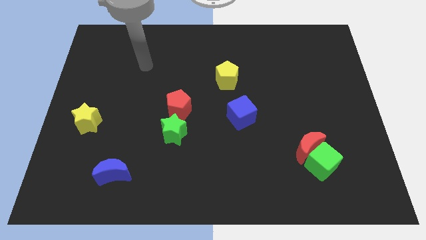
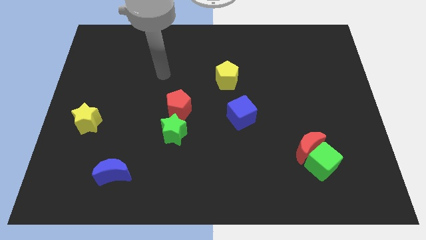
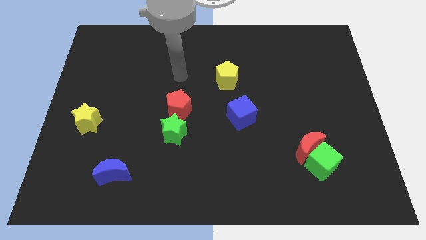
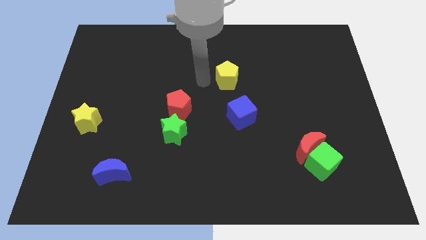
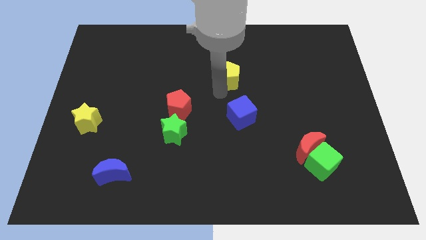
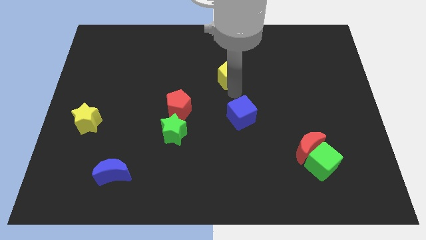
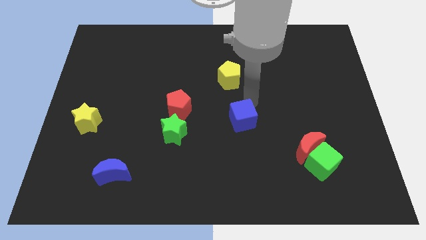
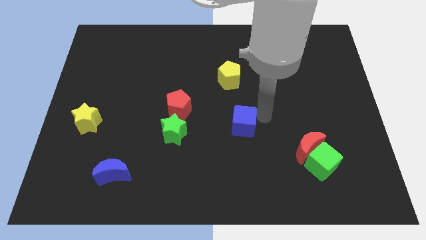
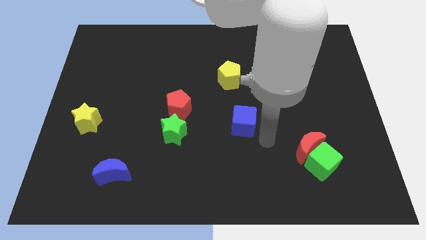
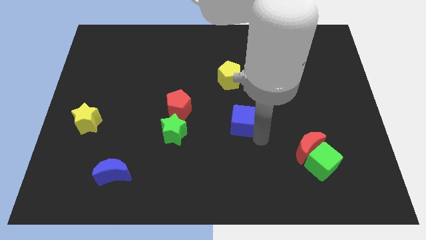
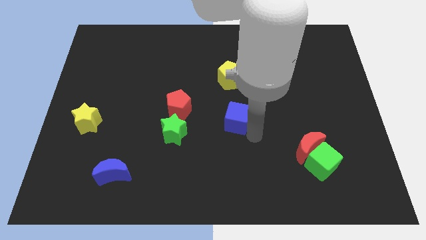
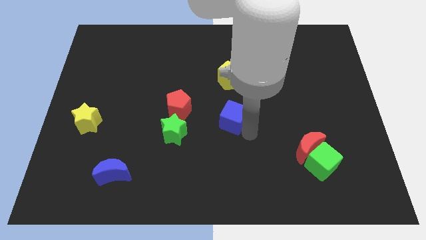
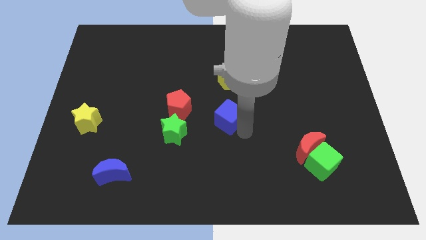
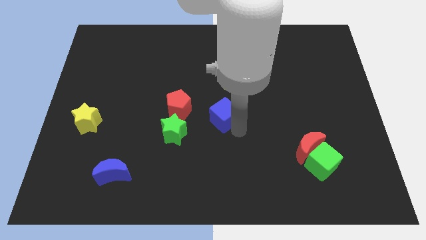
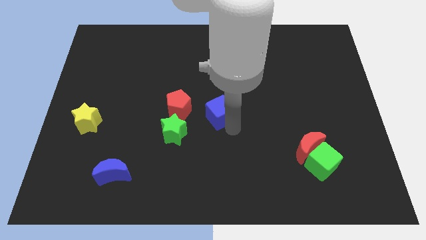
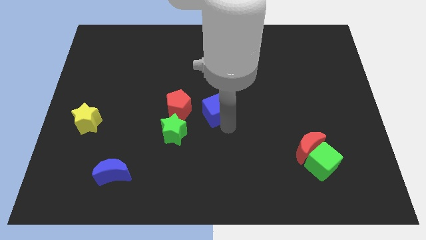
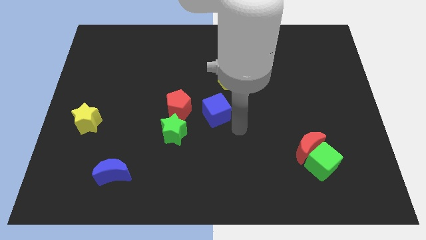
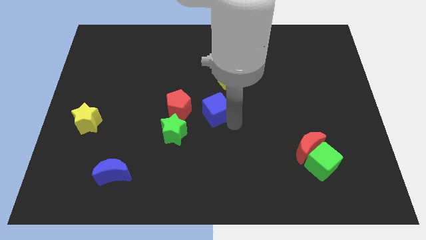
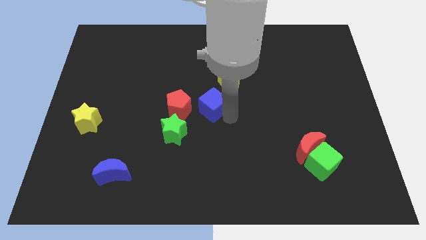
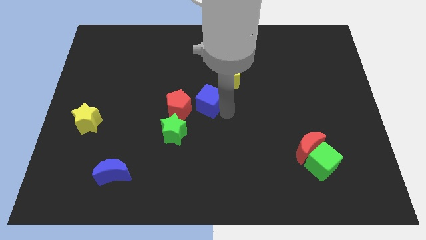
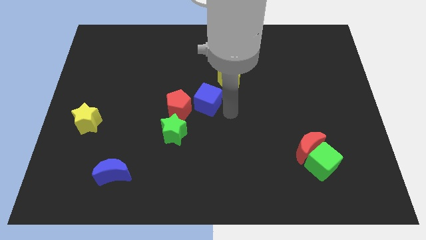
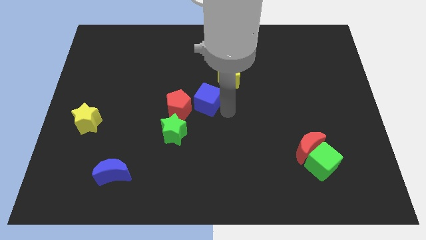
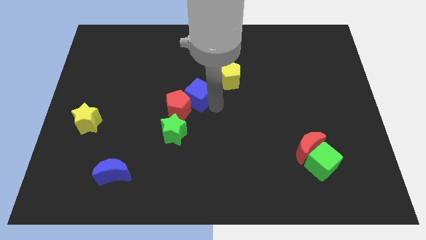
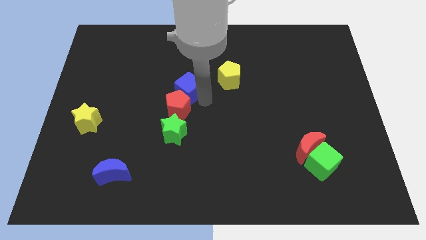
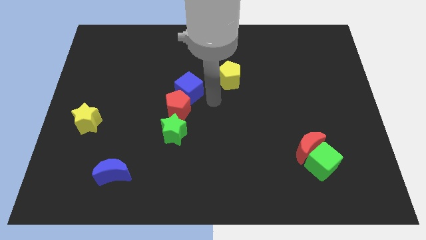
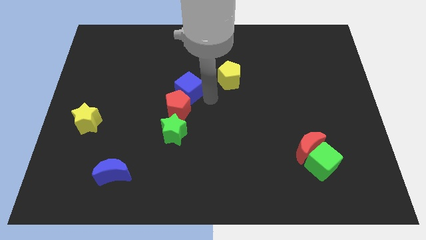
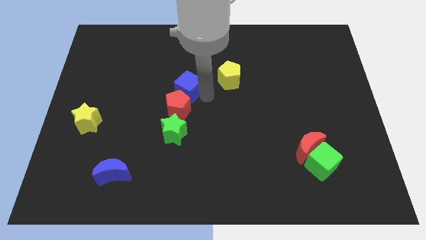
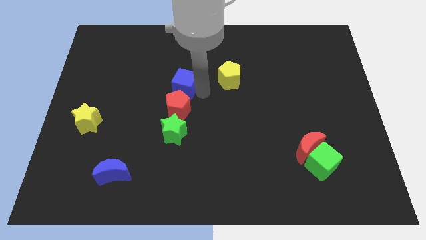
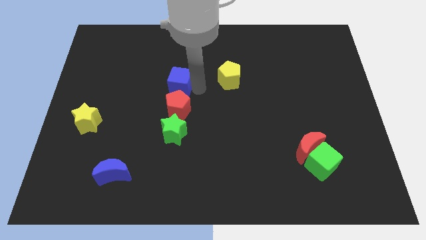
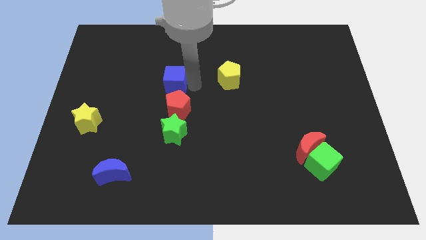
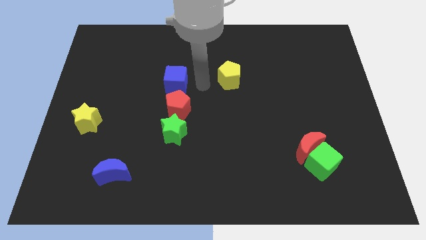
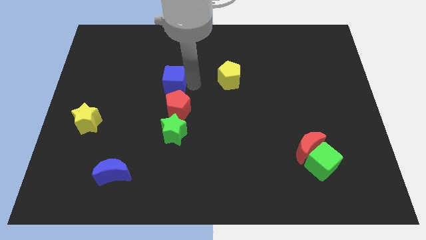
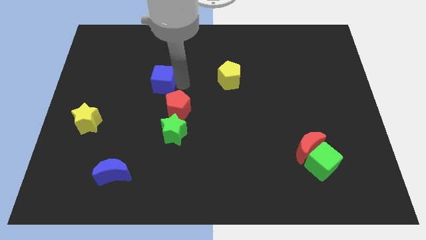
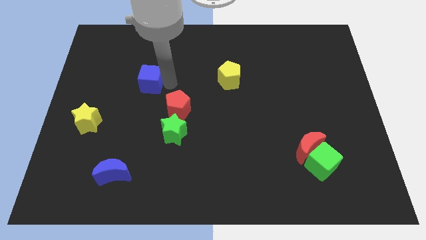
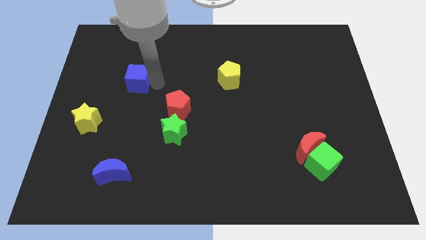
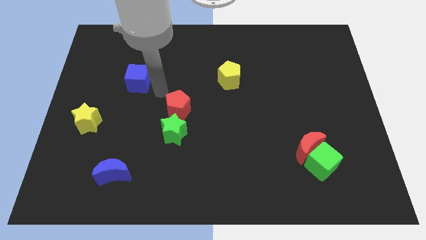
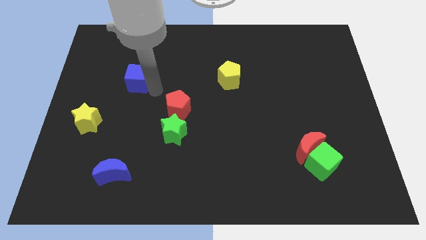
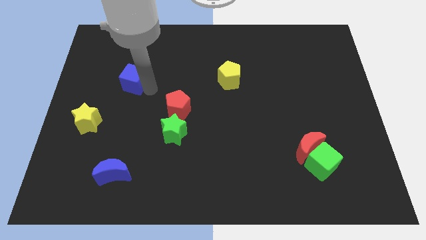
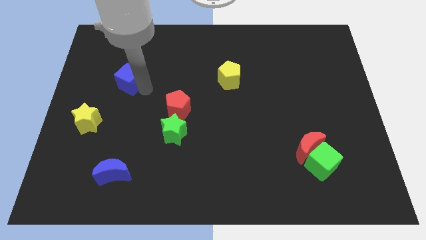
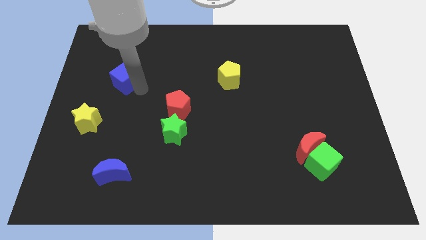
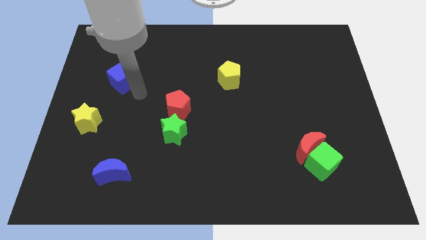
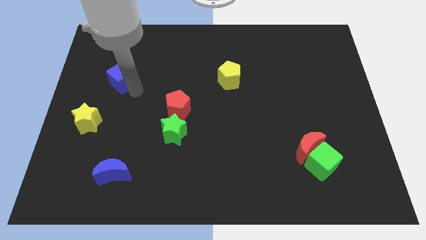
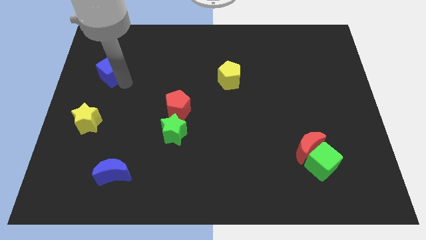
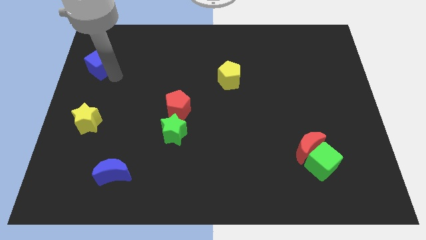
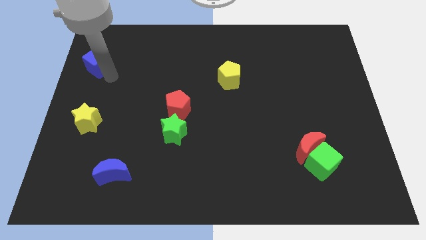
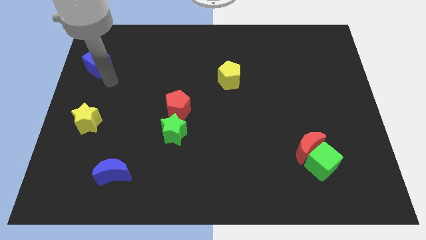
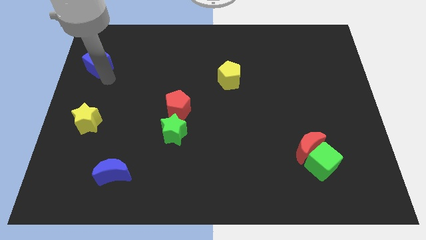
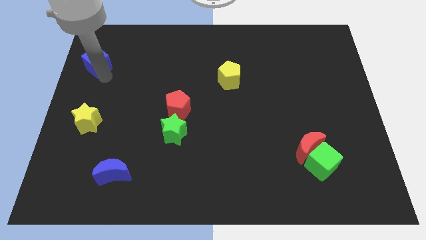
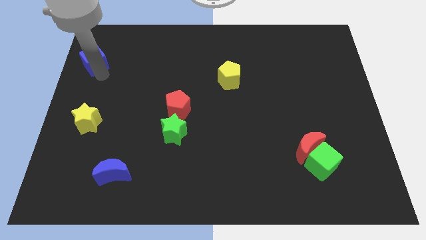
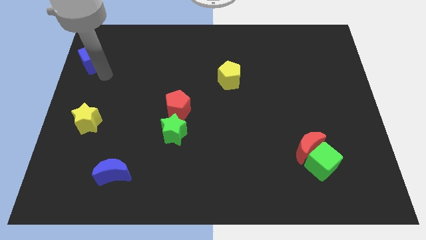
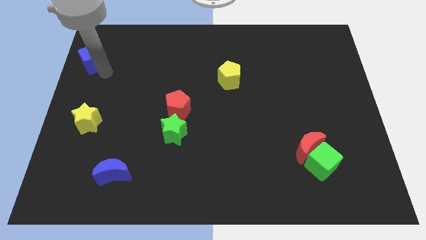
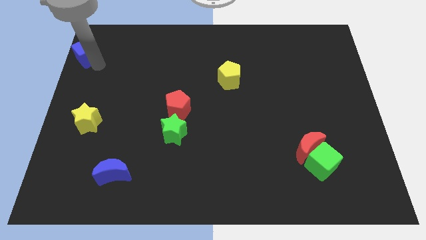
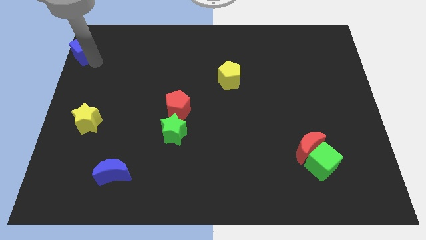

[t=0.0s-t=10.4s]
push the blue cube to the upper left corner

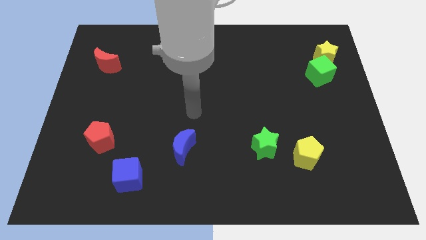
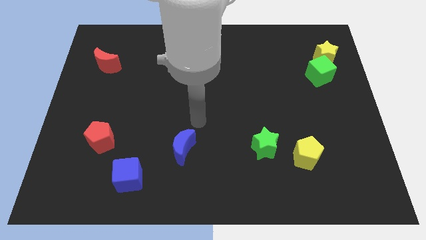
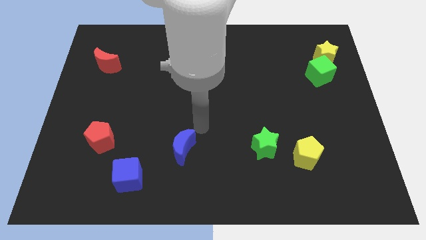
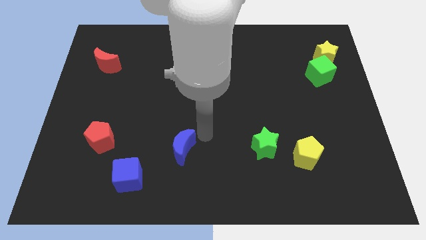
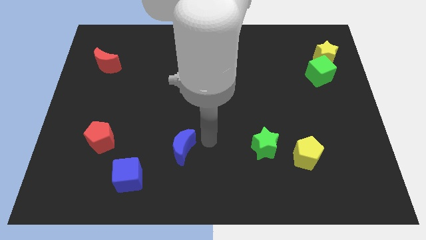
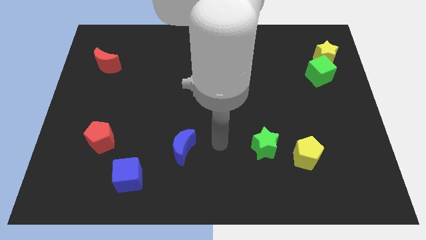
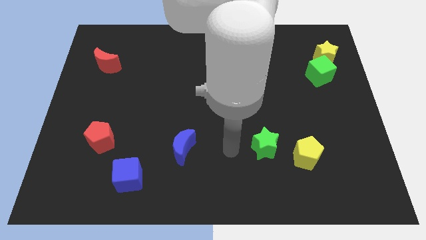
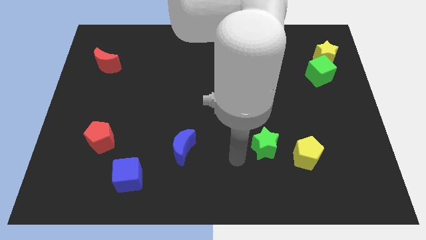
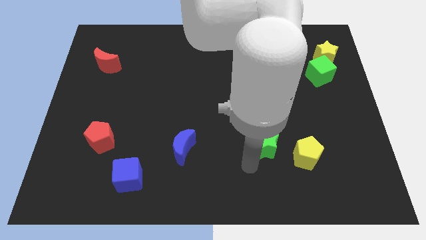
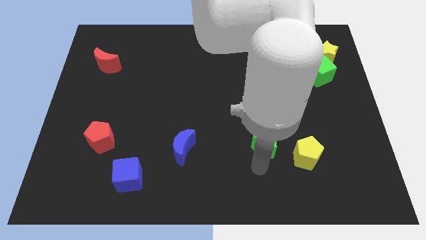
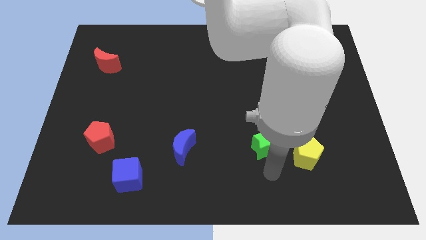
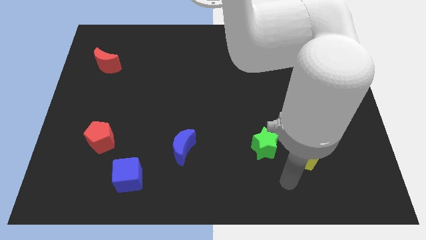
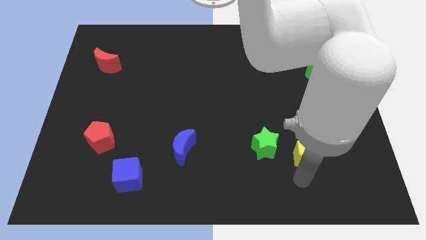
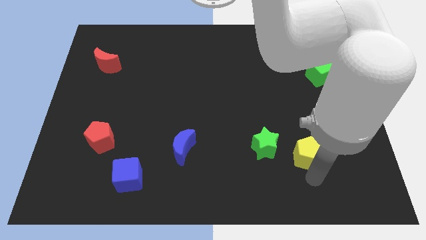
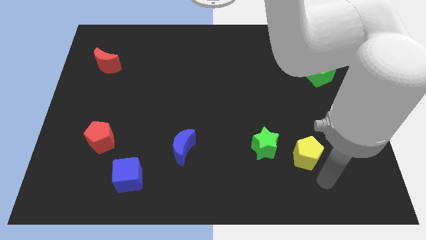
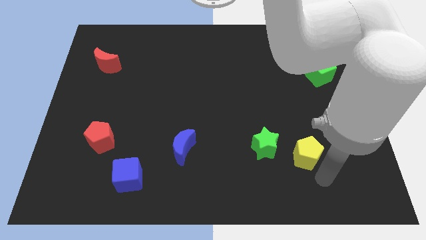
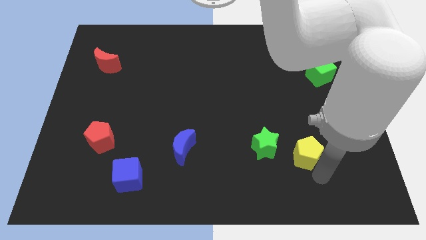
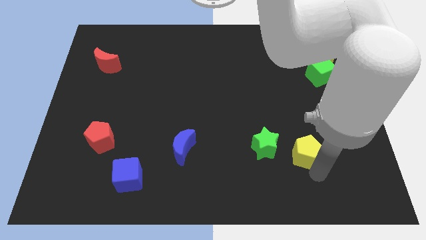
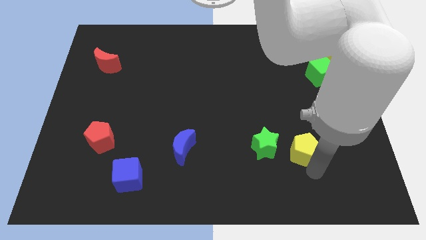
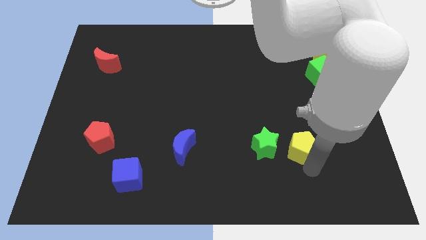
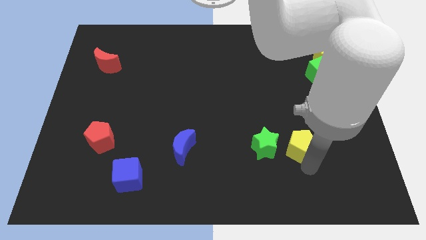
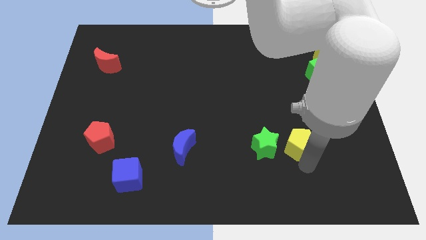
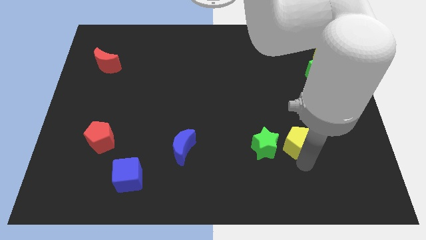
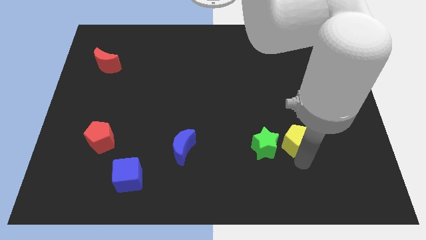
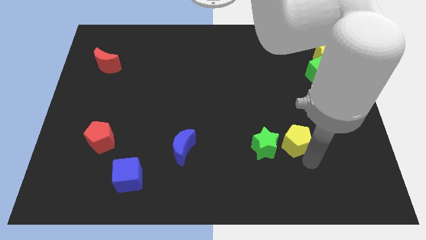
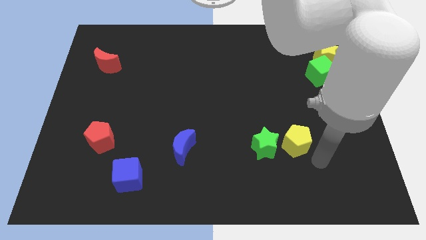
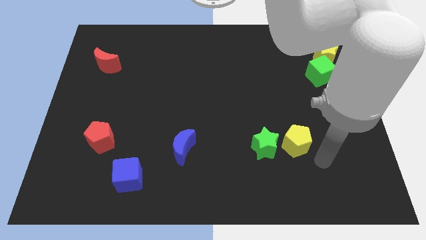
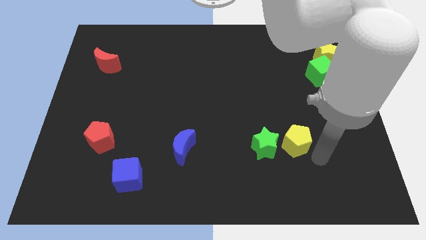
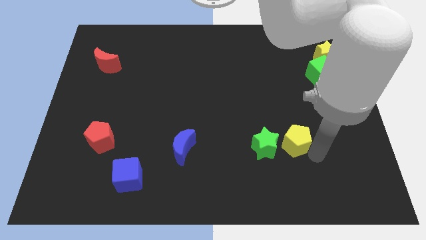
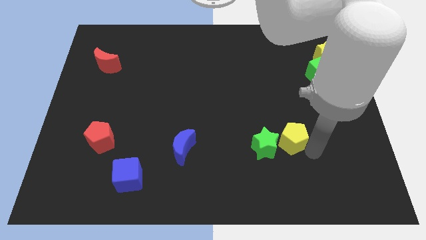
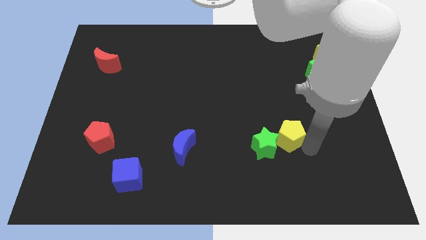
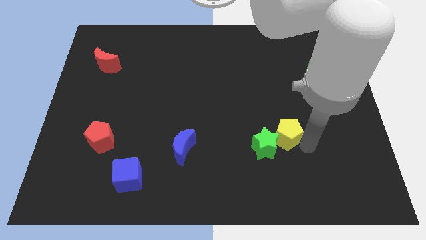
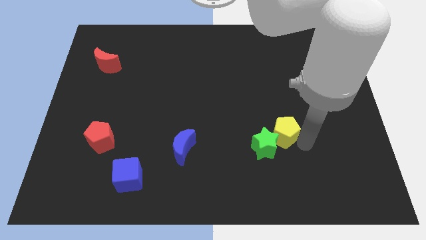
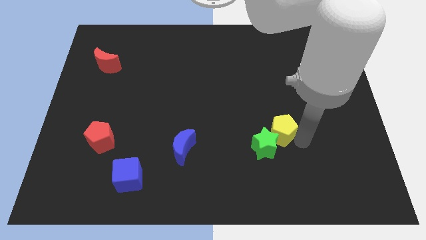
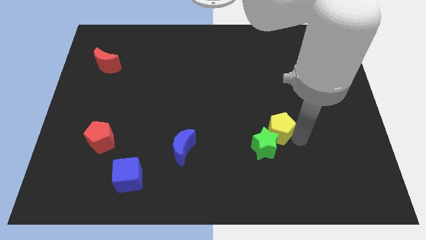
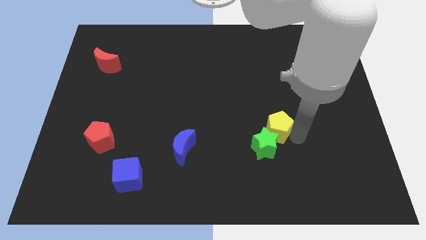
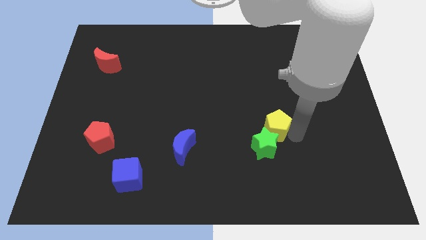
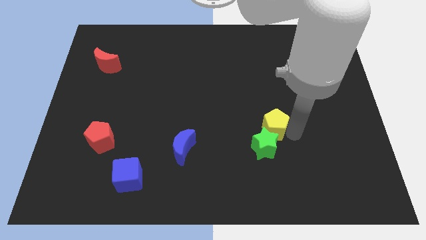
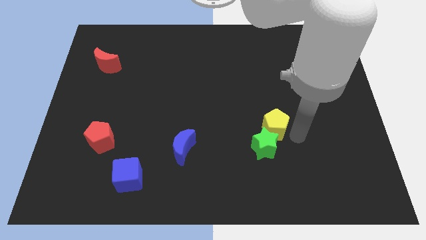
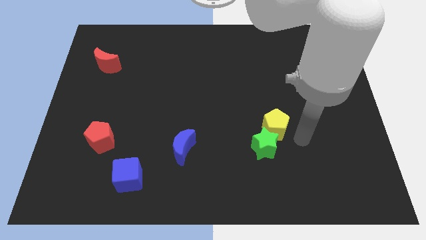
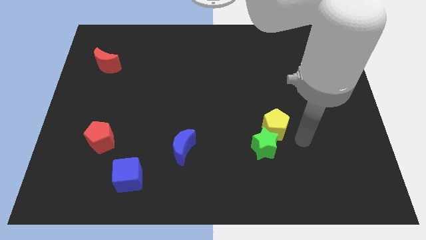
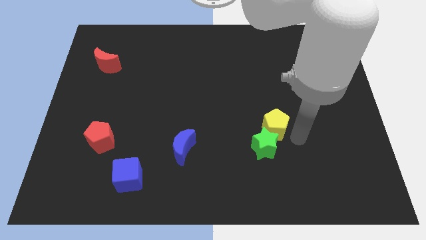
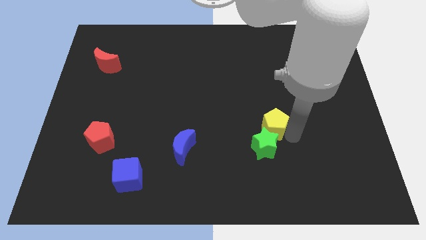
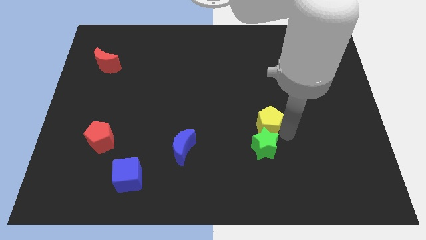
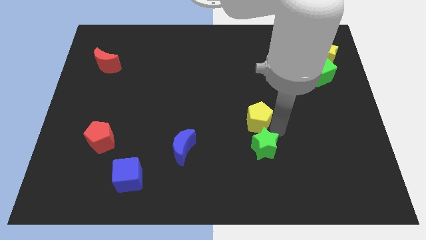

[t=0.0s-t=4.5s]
push the yellow pentagon to the middle
